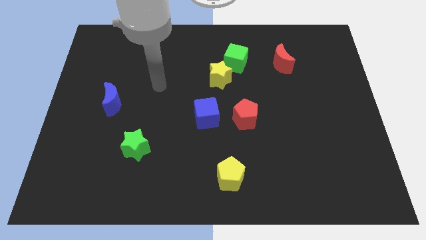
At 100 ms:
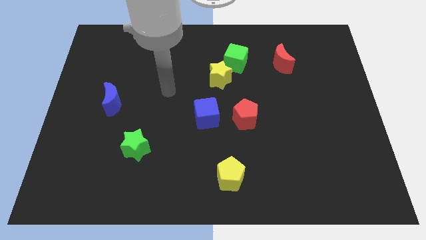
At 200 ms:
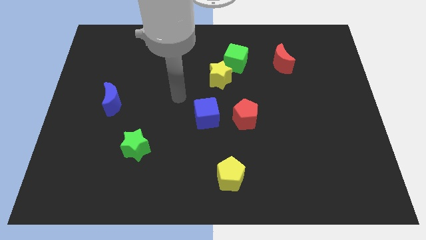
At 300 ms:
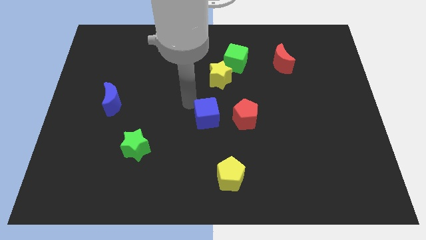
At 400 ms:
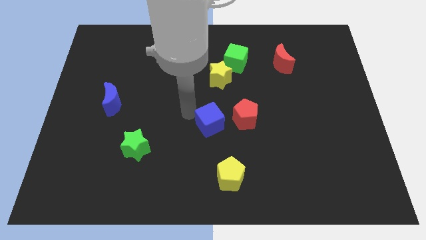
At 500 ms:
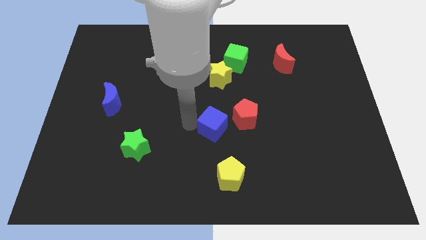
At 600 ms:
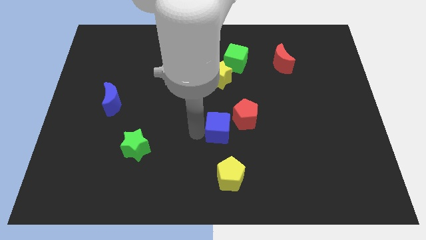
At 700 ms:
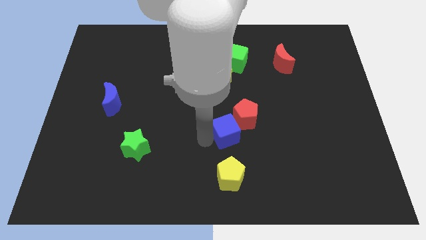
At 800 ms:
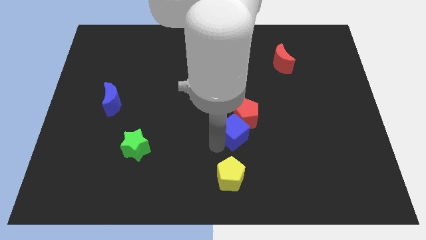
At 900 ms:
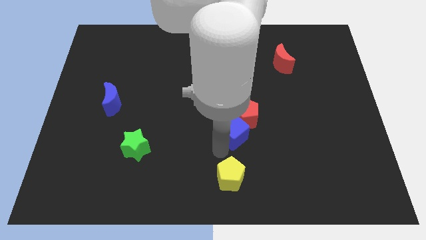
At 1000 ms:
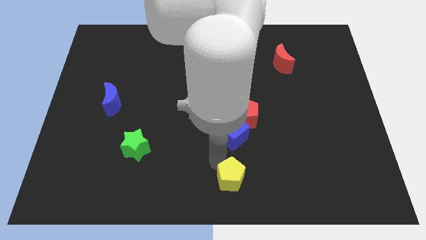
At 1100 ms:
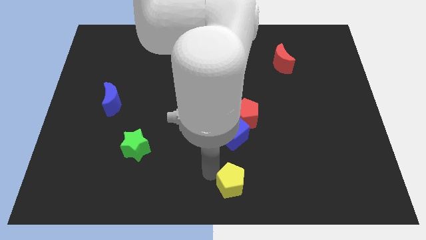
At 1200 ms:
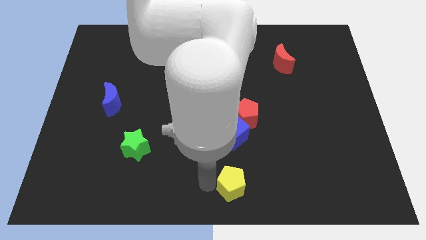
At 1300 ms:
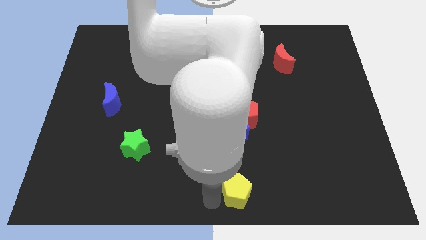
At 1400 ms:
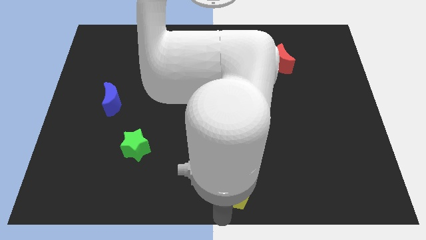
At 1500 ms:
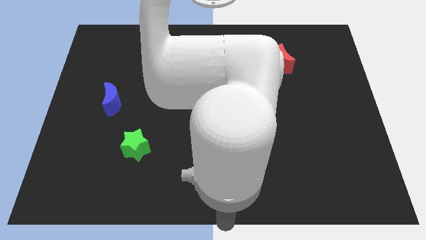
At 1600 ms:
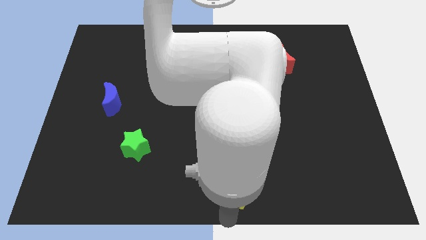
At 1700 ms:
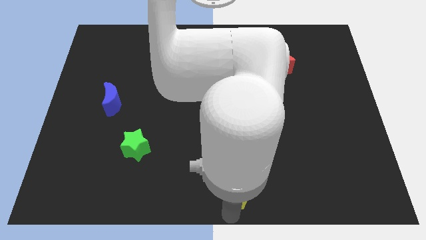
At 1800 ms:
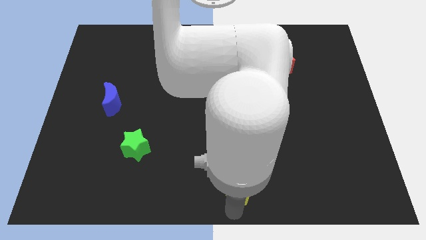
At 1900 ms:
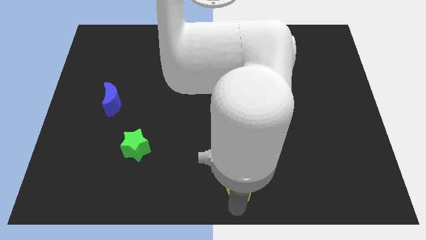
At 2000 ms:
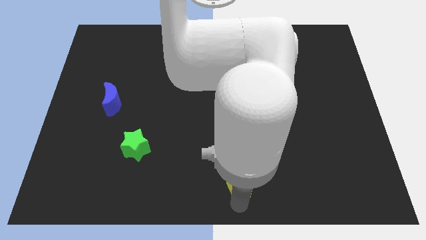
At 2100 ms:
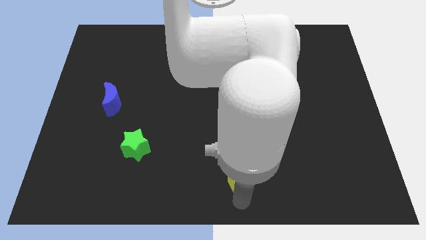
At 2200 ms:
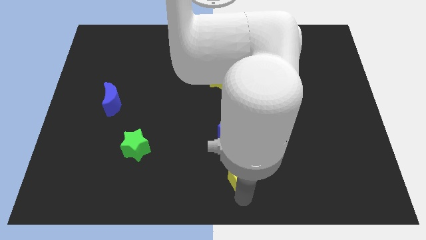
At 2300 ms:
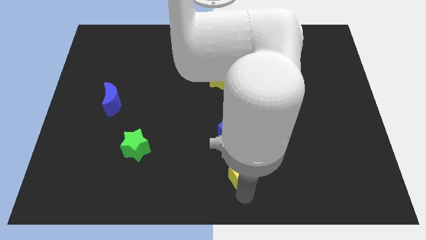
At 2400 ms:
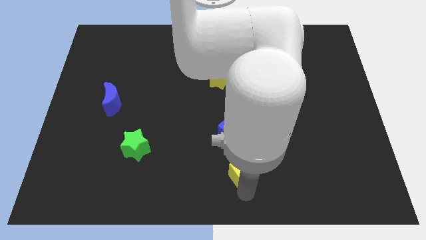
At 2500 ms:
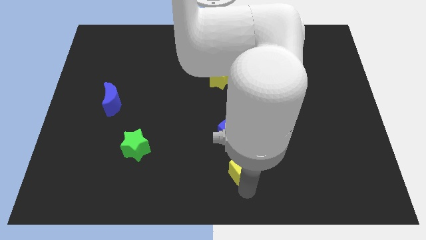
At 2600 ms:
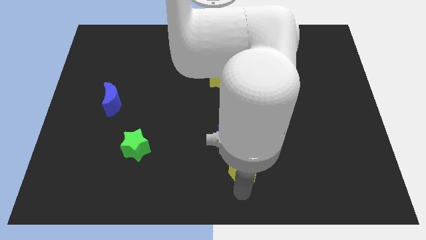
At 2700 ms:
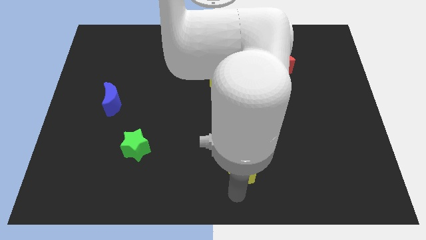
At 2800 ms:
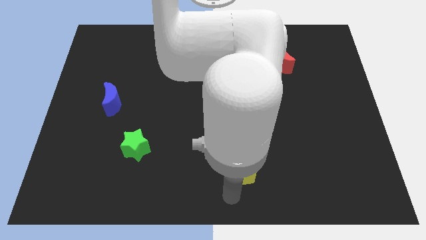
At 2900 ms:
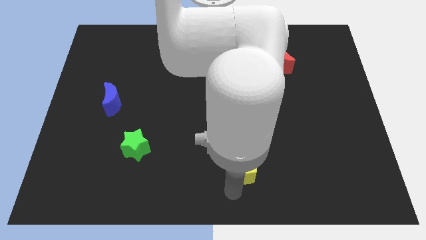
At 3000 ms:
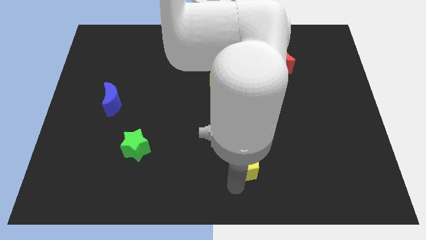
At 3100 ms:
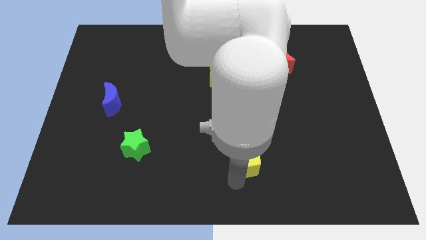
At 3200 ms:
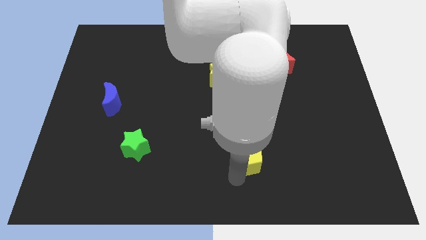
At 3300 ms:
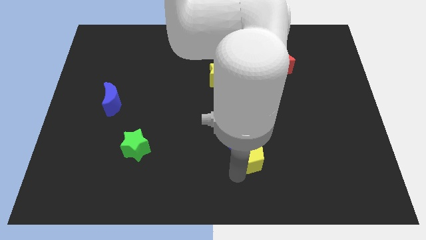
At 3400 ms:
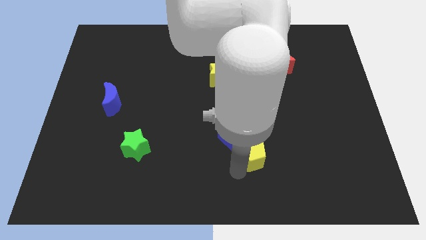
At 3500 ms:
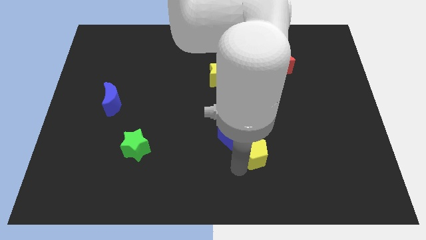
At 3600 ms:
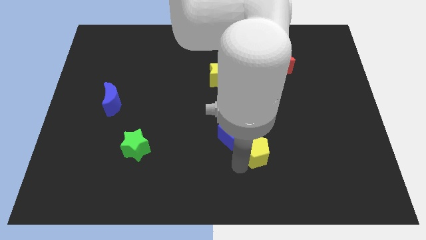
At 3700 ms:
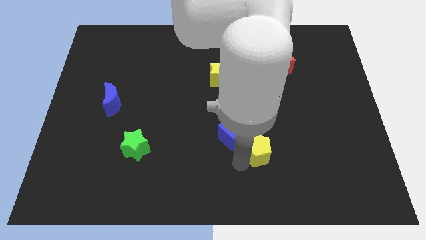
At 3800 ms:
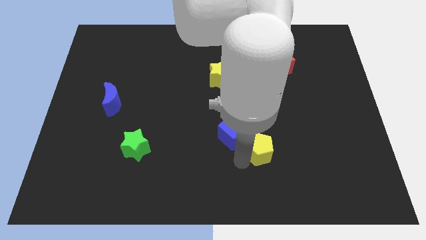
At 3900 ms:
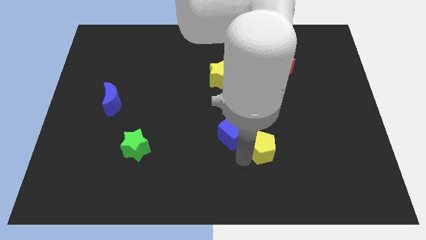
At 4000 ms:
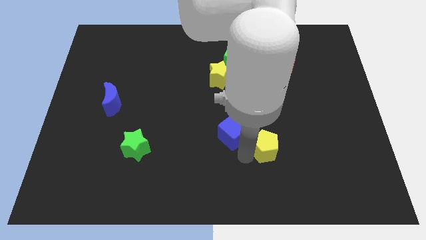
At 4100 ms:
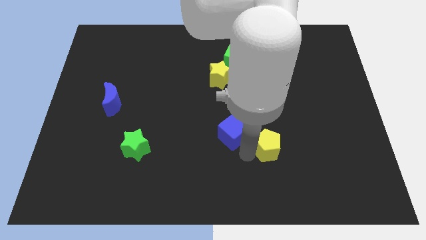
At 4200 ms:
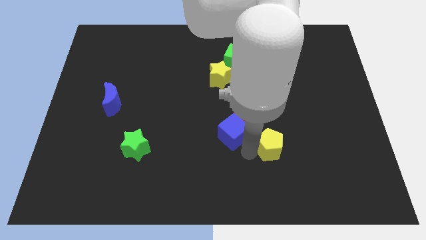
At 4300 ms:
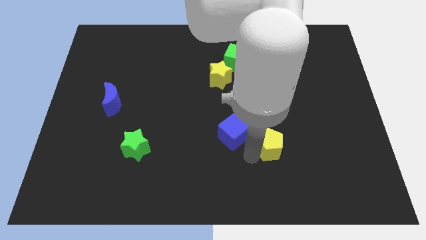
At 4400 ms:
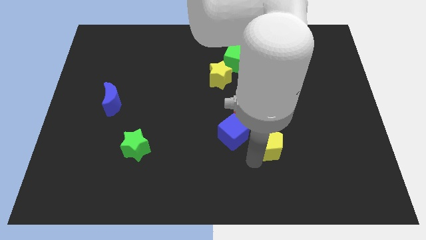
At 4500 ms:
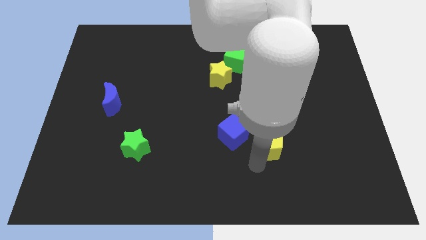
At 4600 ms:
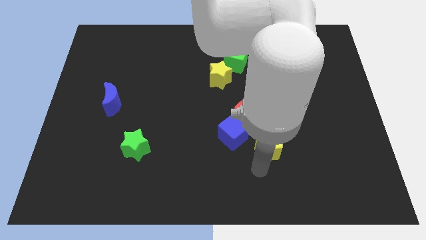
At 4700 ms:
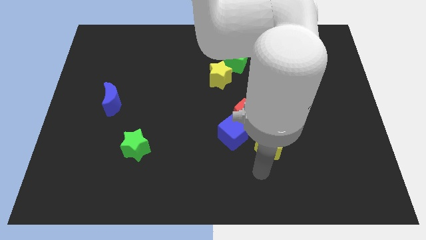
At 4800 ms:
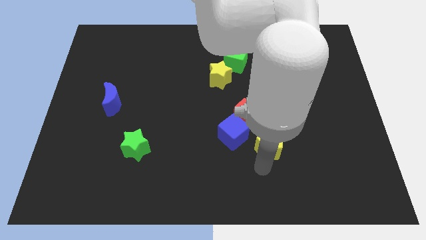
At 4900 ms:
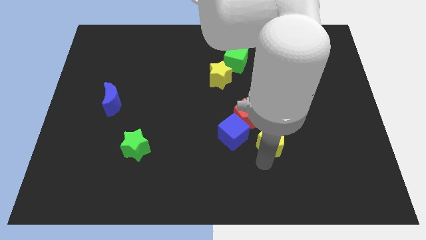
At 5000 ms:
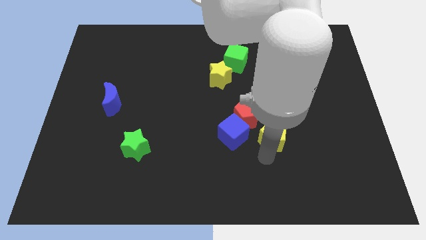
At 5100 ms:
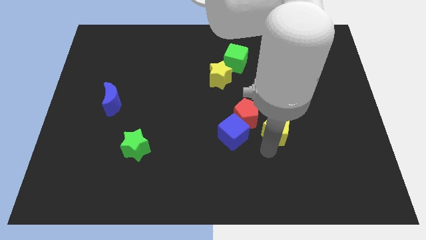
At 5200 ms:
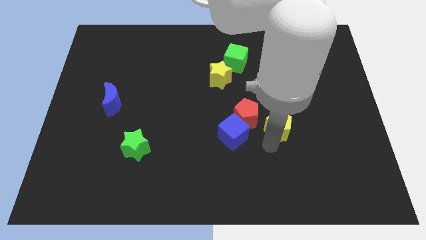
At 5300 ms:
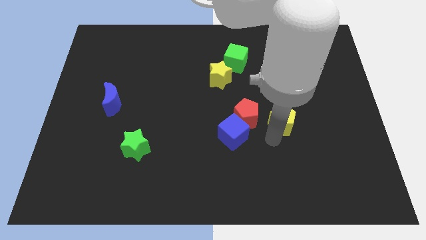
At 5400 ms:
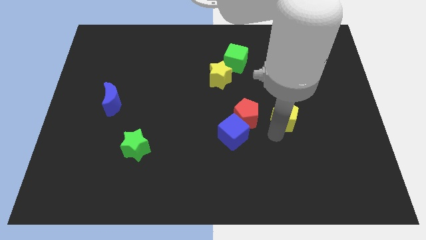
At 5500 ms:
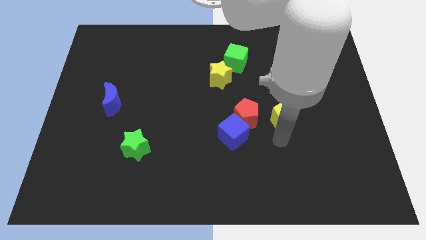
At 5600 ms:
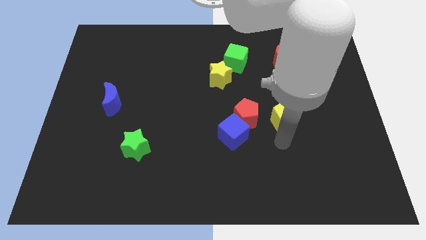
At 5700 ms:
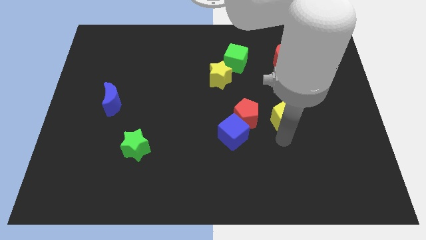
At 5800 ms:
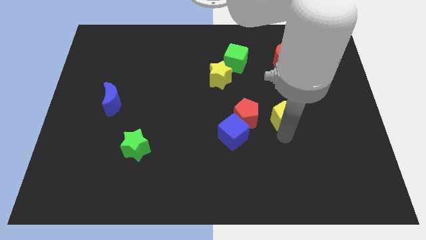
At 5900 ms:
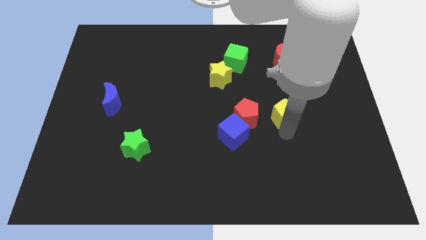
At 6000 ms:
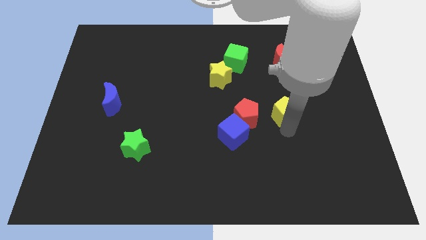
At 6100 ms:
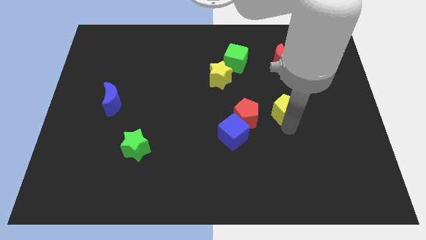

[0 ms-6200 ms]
slide the yellow pentagon below the red moon

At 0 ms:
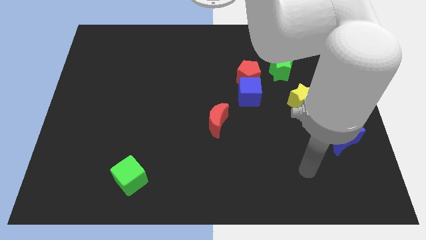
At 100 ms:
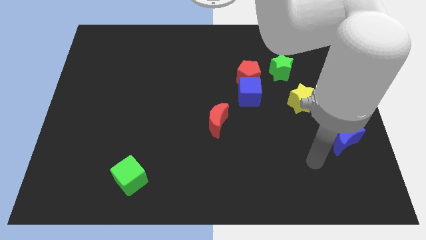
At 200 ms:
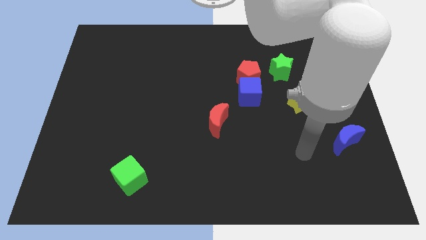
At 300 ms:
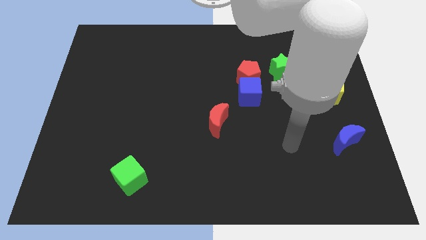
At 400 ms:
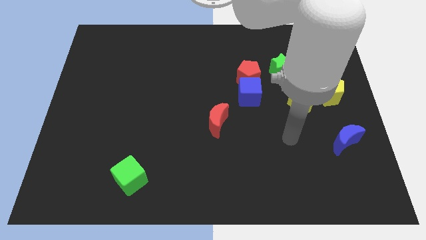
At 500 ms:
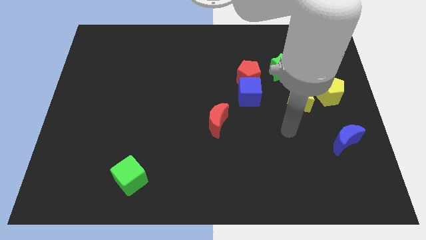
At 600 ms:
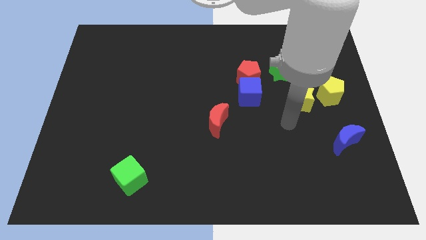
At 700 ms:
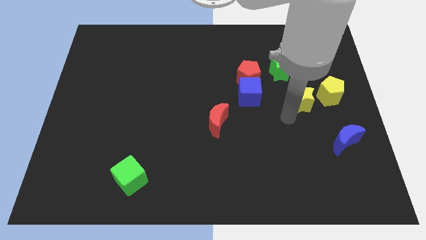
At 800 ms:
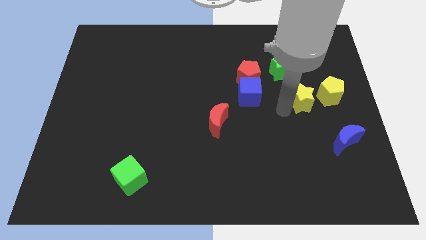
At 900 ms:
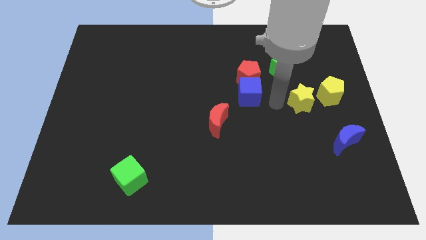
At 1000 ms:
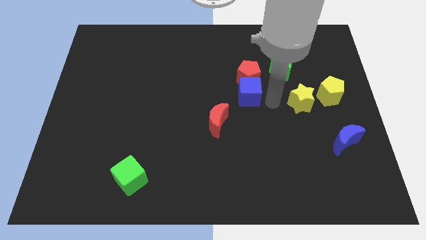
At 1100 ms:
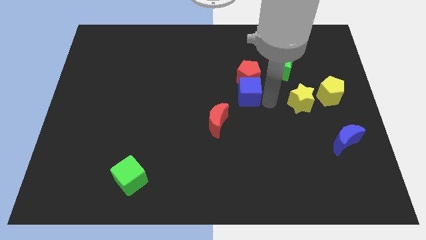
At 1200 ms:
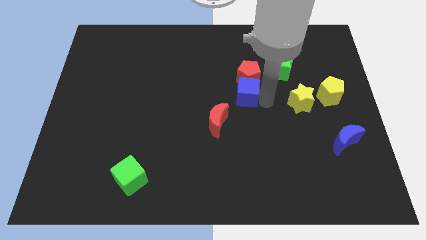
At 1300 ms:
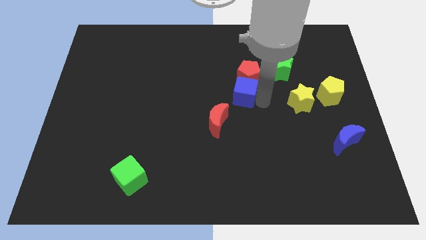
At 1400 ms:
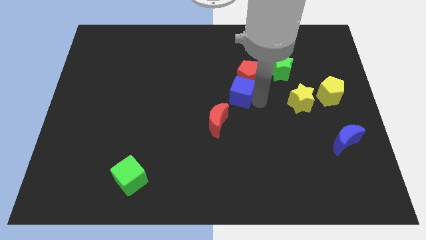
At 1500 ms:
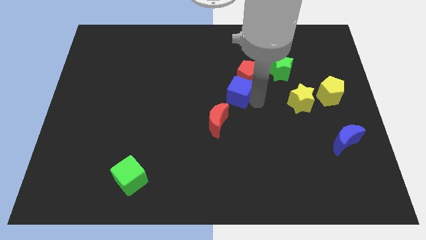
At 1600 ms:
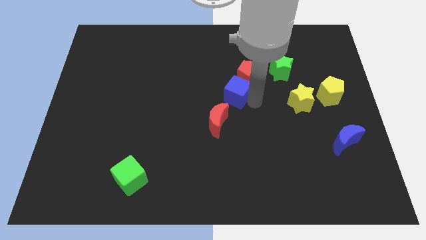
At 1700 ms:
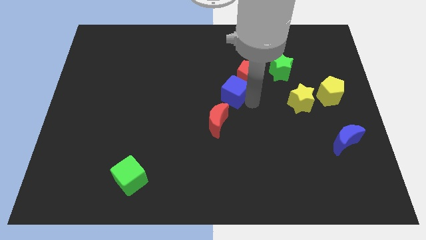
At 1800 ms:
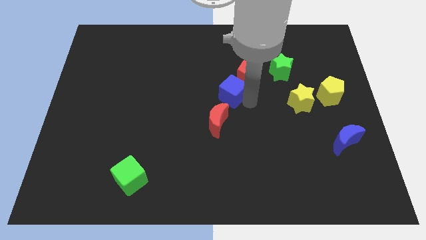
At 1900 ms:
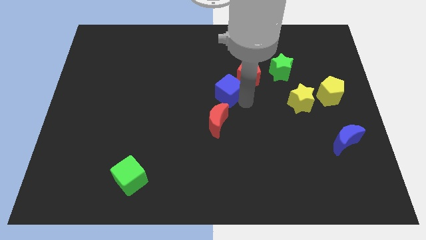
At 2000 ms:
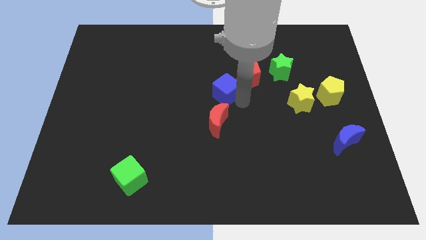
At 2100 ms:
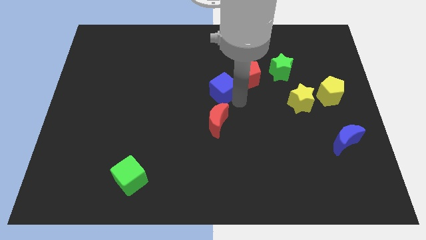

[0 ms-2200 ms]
push the blue cube just left of the red pentagon
